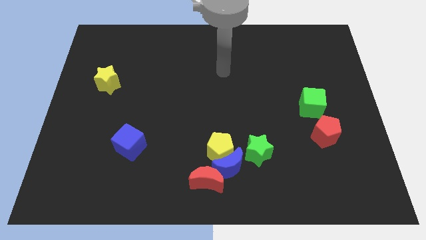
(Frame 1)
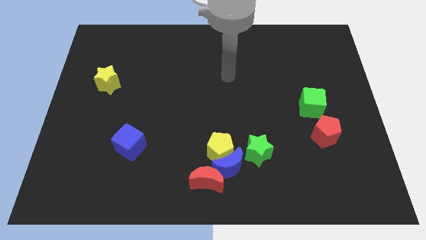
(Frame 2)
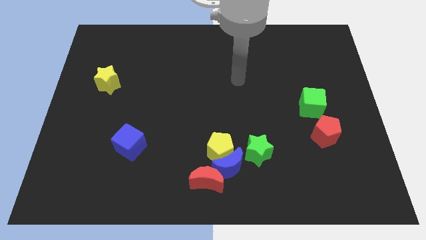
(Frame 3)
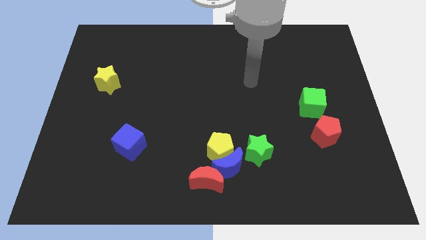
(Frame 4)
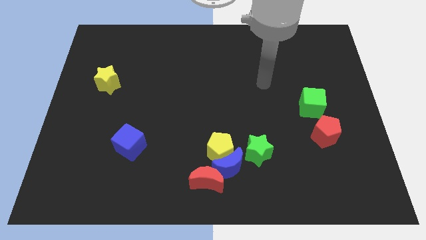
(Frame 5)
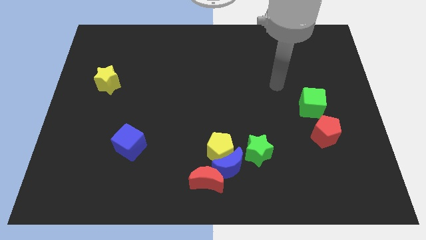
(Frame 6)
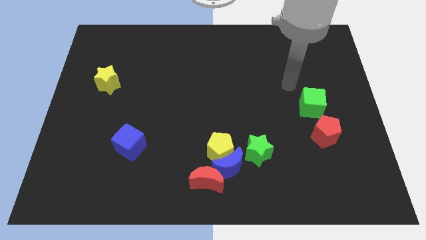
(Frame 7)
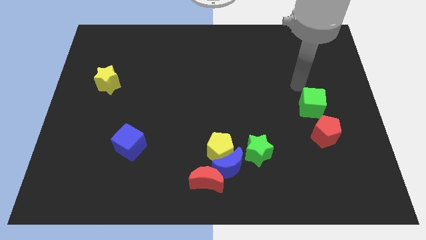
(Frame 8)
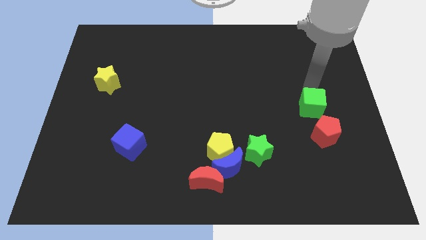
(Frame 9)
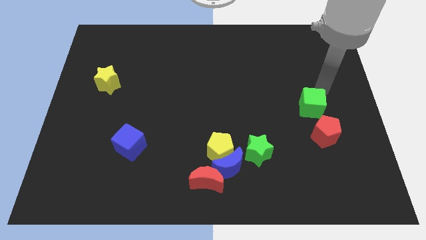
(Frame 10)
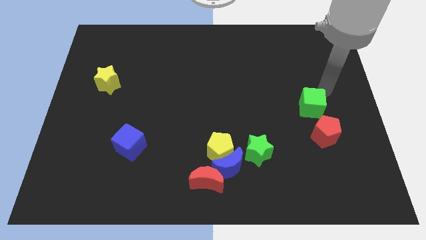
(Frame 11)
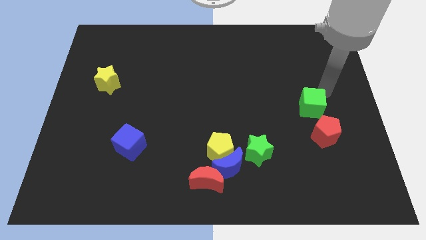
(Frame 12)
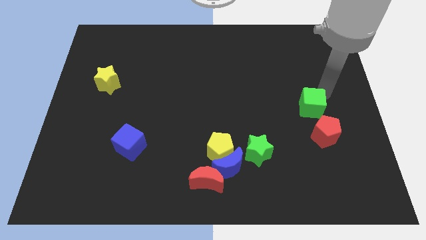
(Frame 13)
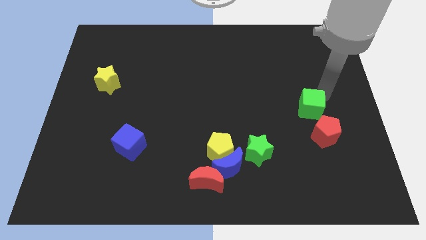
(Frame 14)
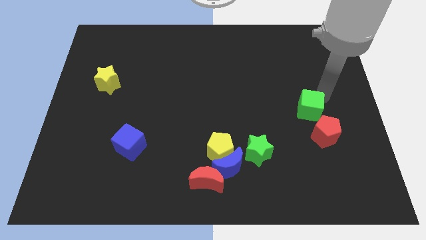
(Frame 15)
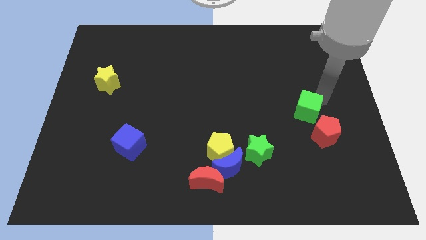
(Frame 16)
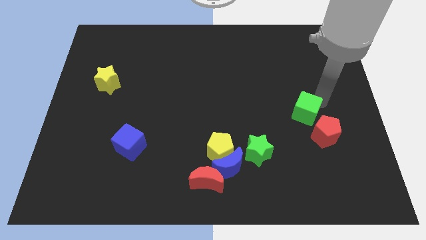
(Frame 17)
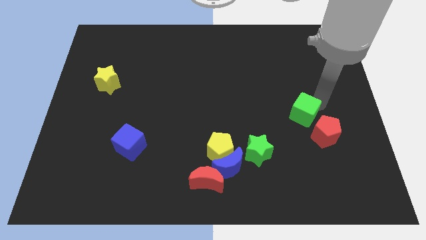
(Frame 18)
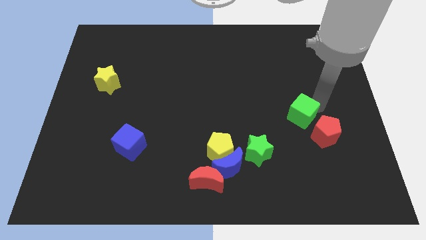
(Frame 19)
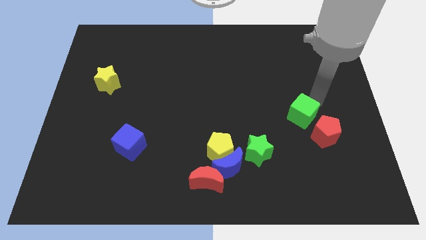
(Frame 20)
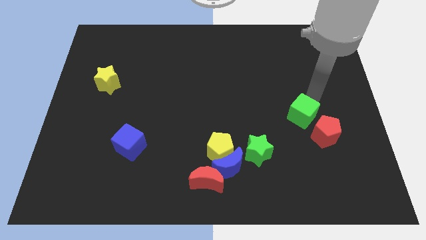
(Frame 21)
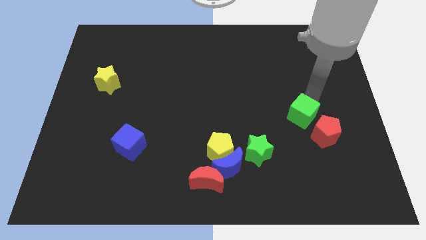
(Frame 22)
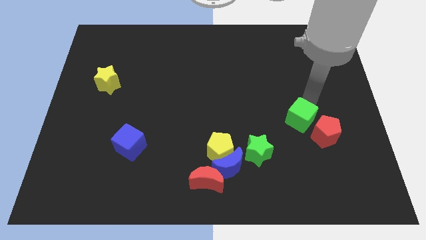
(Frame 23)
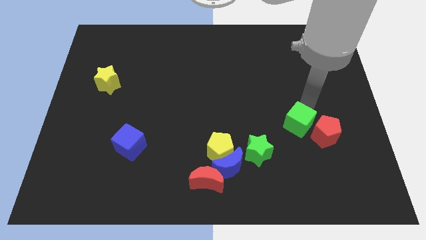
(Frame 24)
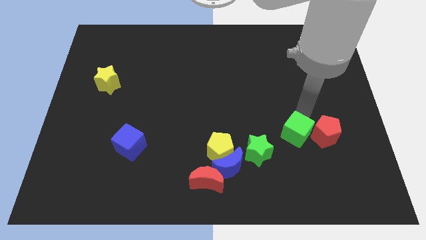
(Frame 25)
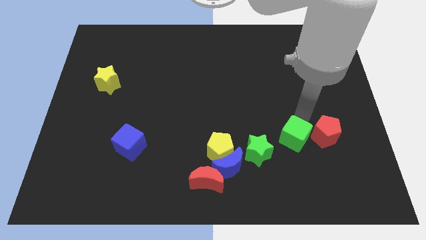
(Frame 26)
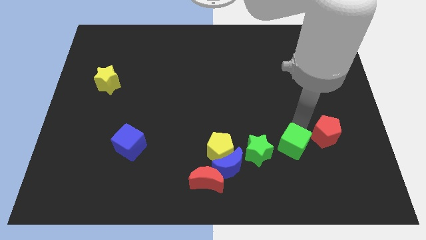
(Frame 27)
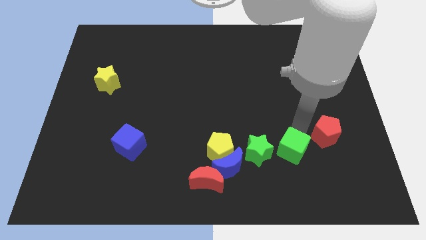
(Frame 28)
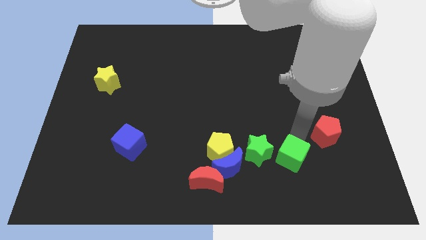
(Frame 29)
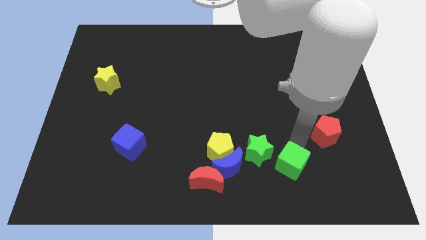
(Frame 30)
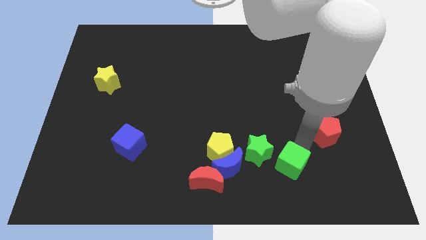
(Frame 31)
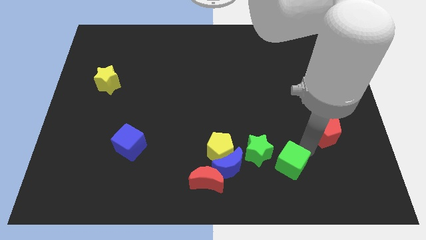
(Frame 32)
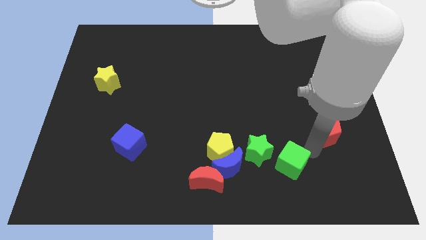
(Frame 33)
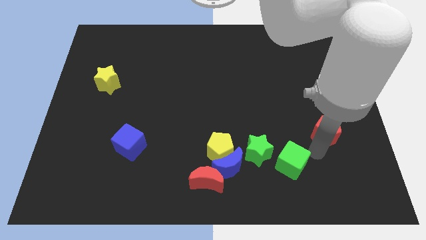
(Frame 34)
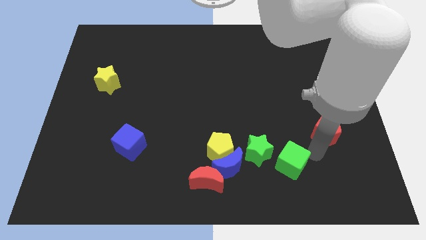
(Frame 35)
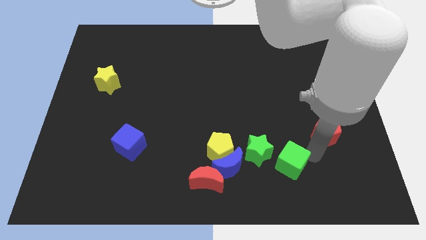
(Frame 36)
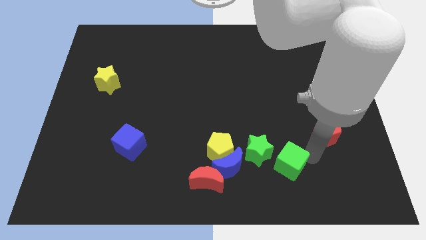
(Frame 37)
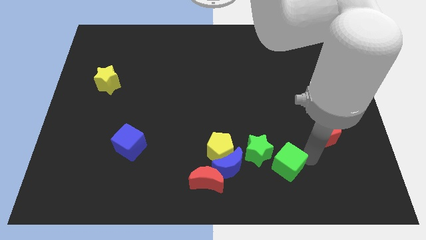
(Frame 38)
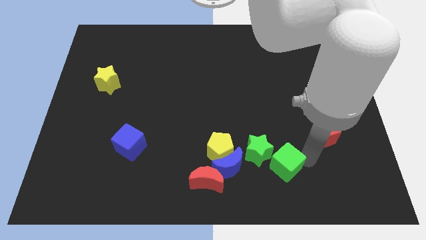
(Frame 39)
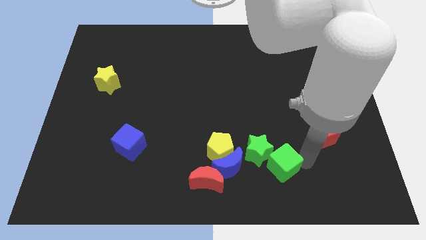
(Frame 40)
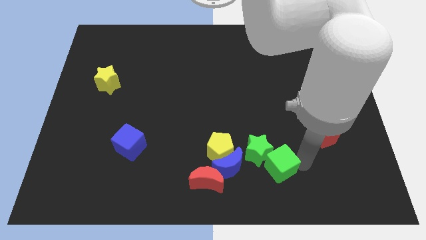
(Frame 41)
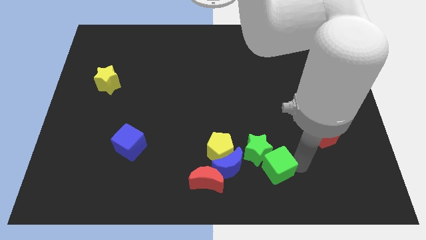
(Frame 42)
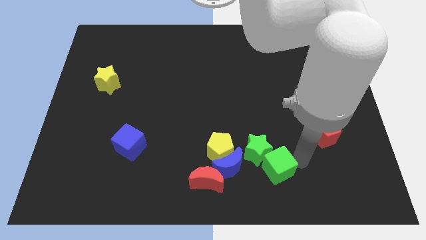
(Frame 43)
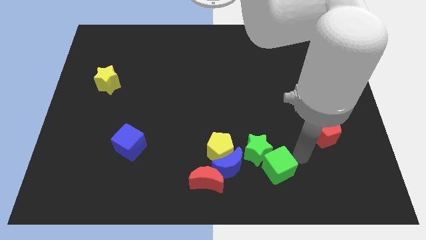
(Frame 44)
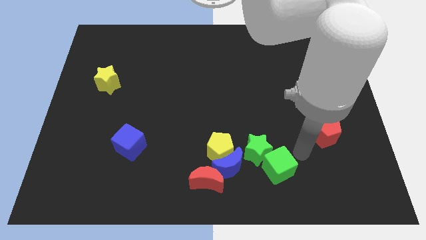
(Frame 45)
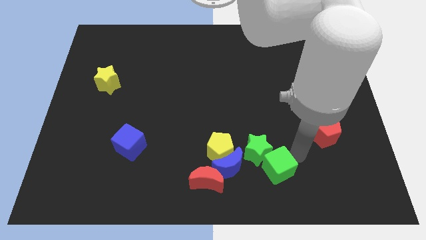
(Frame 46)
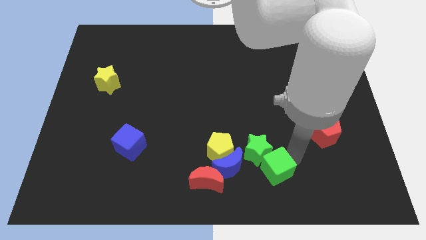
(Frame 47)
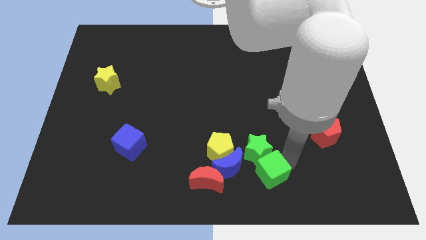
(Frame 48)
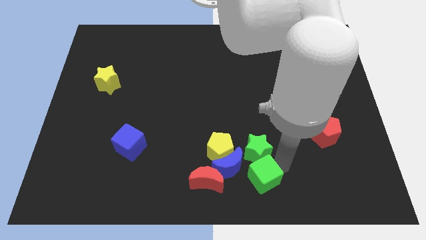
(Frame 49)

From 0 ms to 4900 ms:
slide the green cube to the bottom side

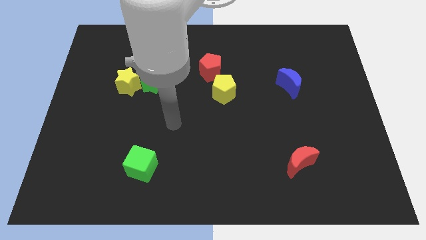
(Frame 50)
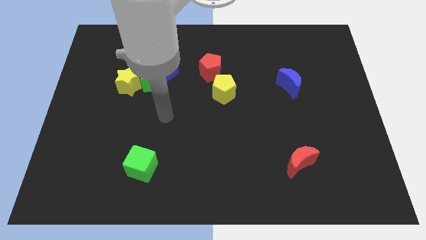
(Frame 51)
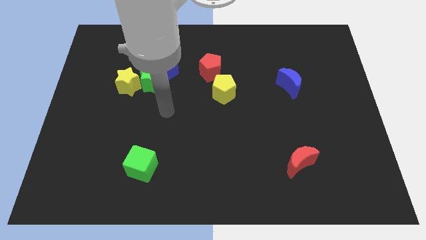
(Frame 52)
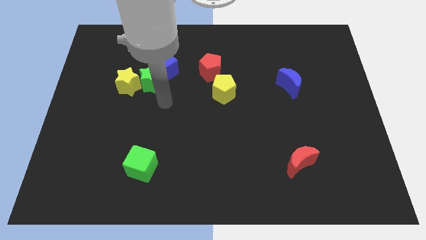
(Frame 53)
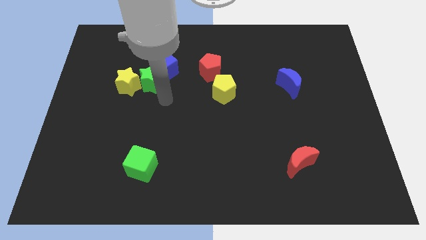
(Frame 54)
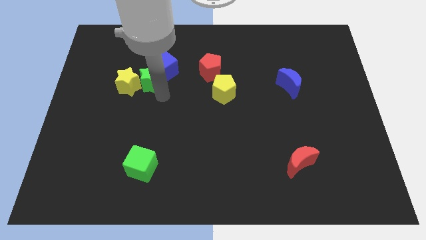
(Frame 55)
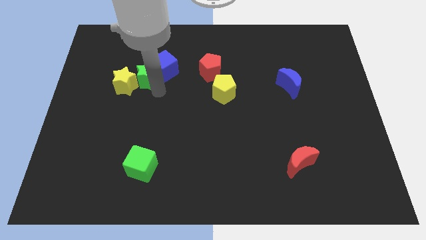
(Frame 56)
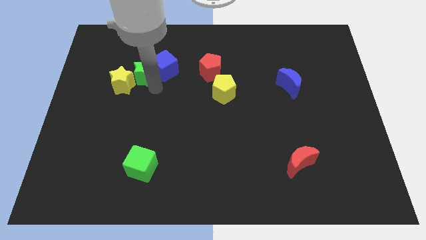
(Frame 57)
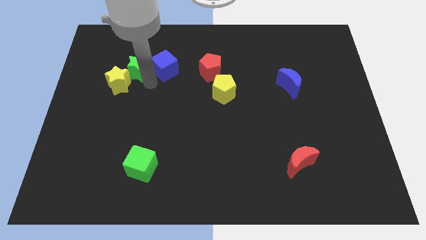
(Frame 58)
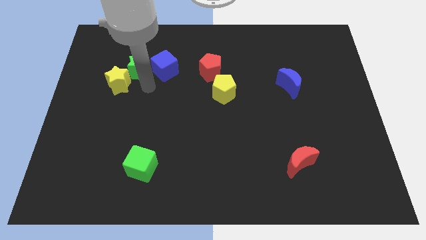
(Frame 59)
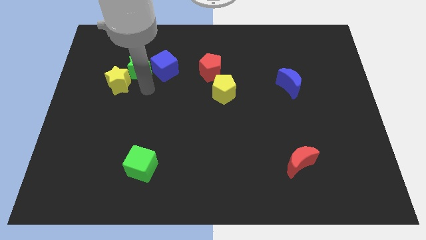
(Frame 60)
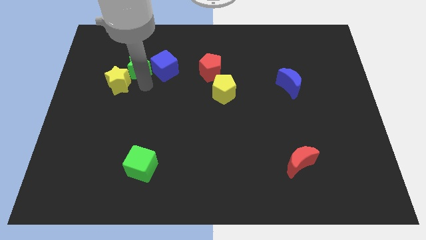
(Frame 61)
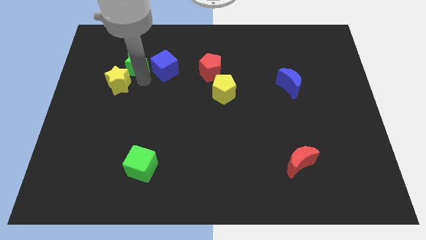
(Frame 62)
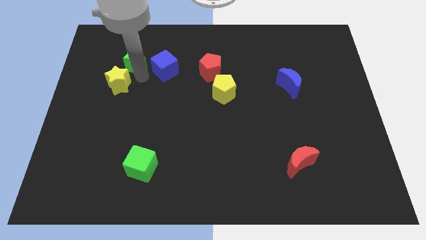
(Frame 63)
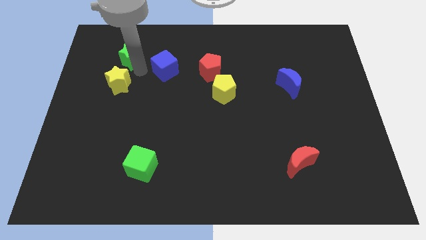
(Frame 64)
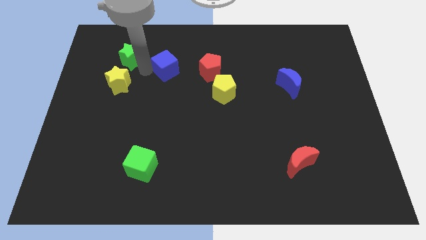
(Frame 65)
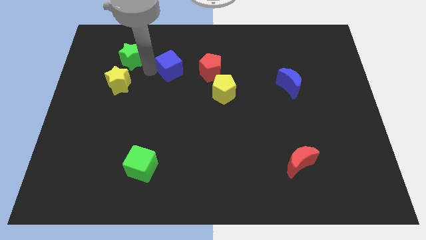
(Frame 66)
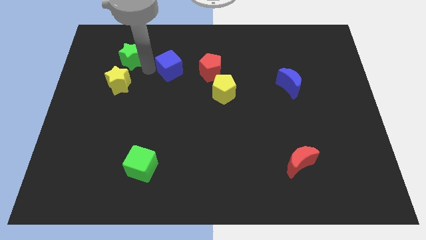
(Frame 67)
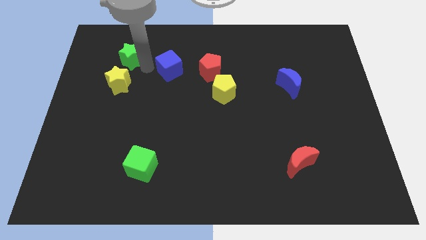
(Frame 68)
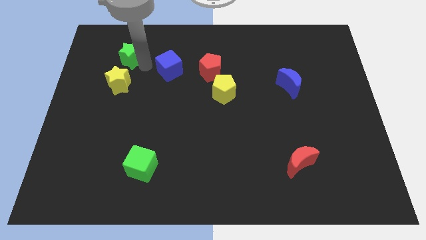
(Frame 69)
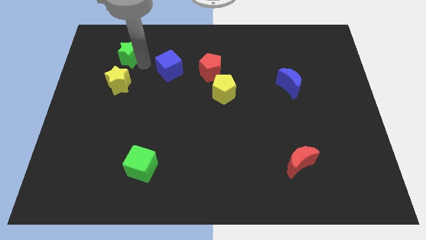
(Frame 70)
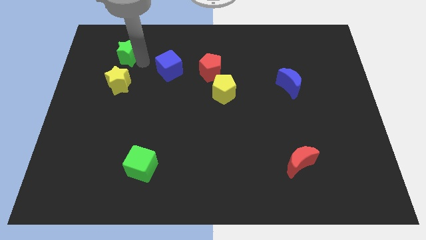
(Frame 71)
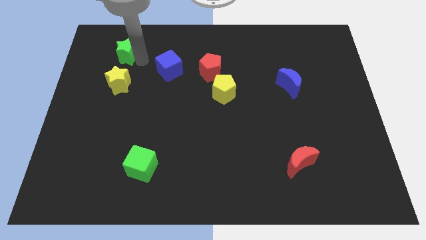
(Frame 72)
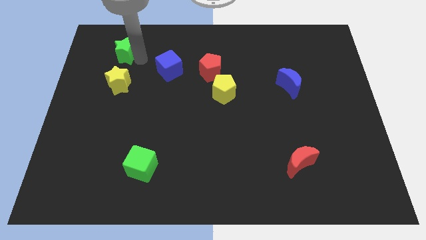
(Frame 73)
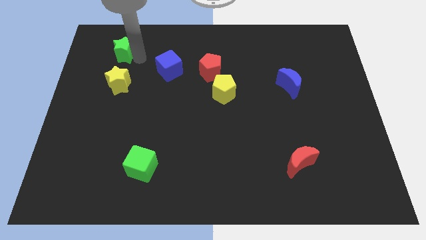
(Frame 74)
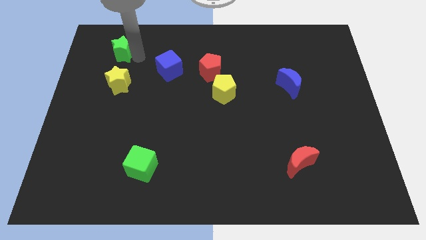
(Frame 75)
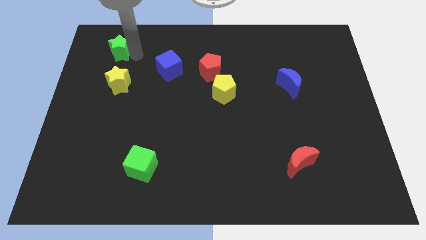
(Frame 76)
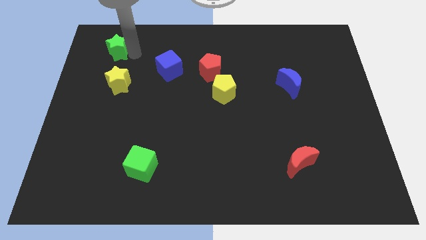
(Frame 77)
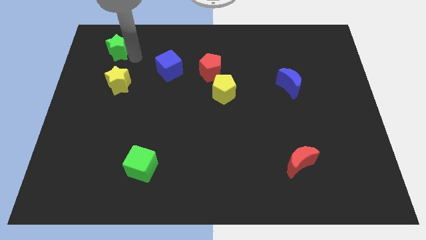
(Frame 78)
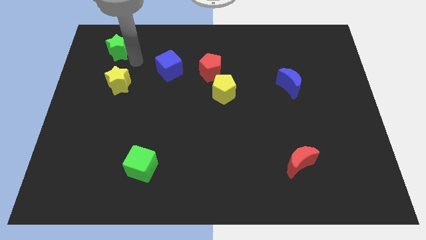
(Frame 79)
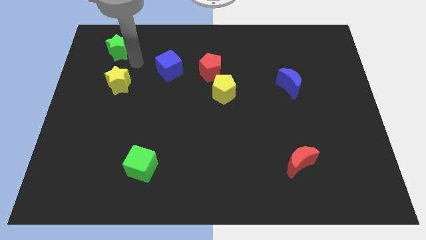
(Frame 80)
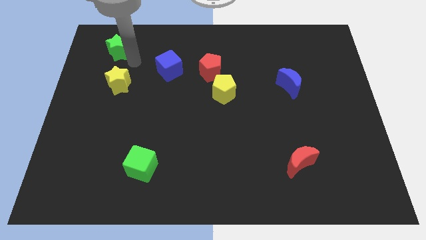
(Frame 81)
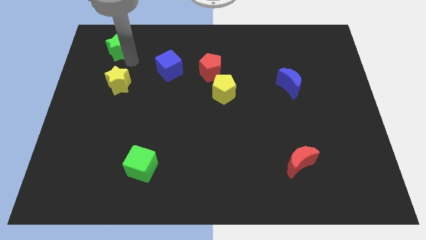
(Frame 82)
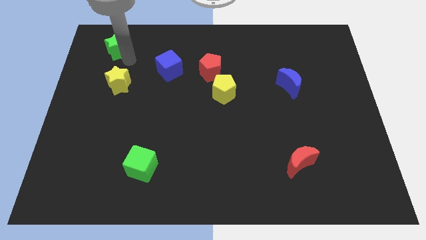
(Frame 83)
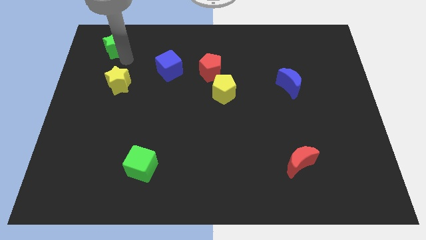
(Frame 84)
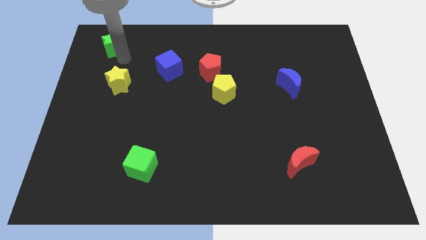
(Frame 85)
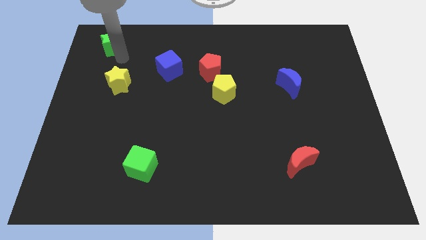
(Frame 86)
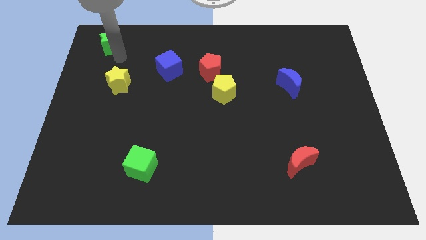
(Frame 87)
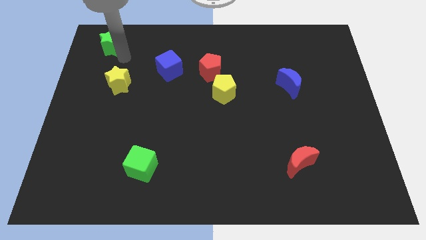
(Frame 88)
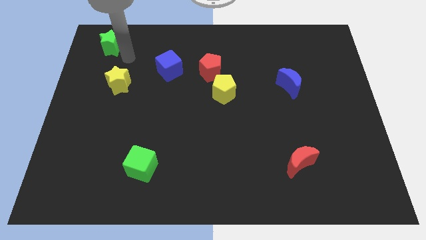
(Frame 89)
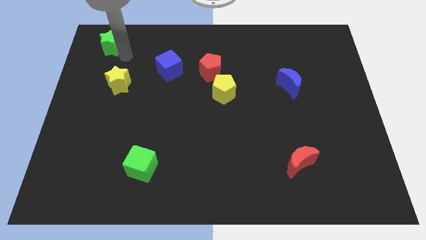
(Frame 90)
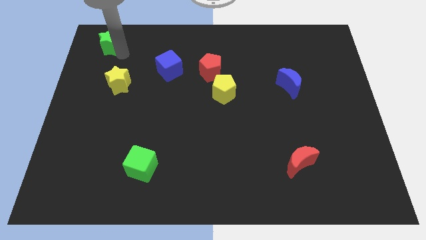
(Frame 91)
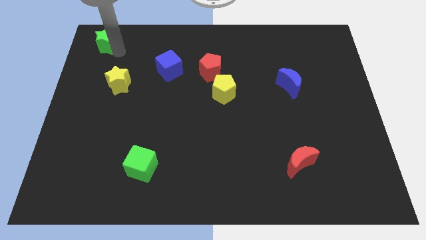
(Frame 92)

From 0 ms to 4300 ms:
move the green star to the upper left corner
